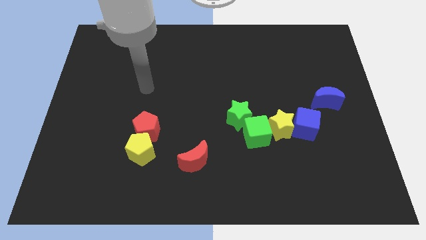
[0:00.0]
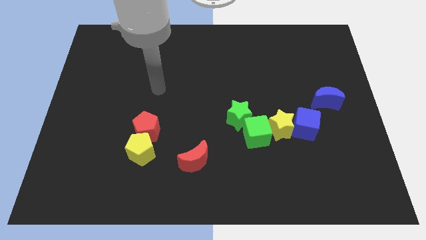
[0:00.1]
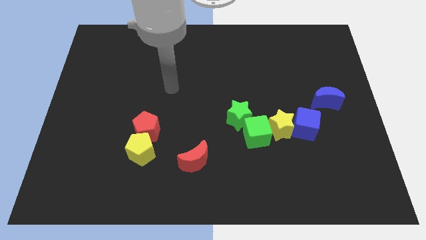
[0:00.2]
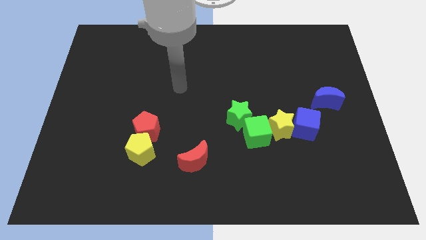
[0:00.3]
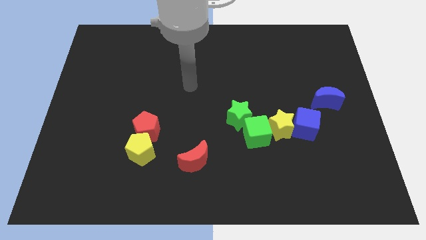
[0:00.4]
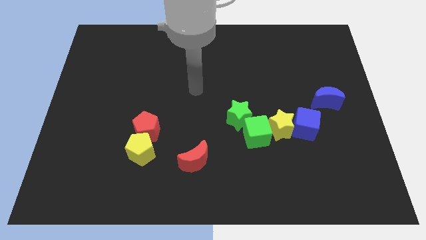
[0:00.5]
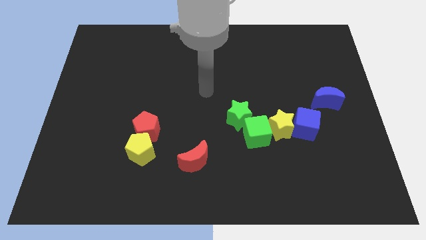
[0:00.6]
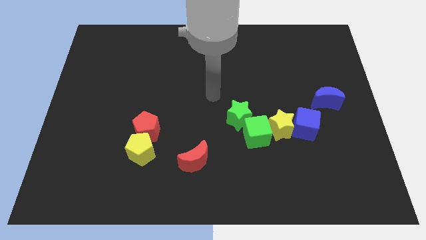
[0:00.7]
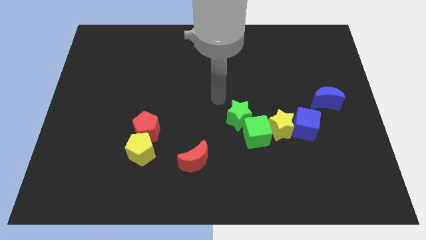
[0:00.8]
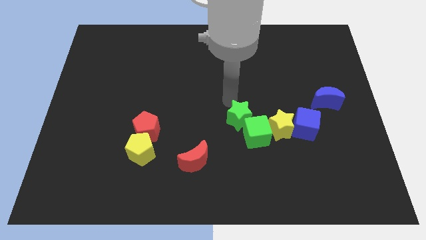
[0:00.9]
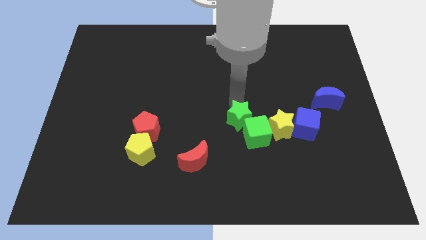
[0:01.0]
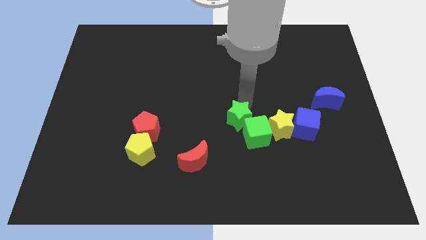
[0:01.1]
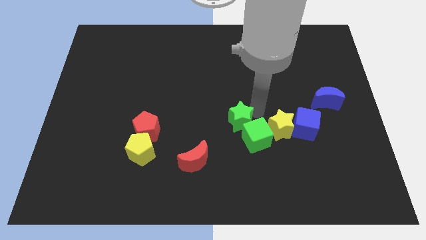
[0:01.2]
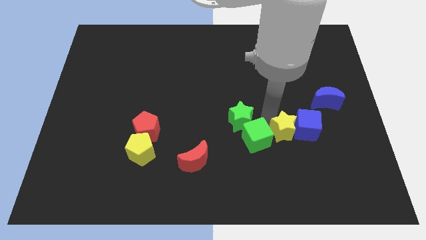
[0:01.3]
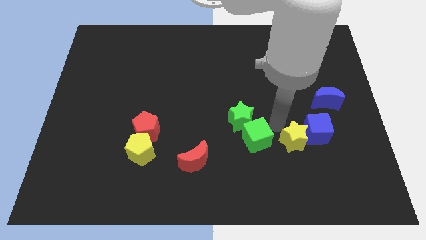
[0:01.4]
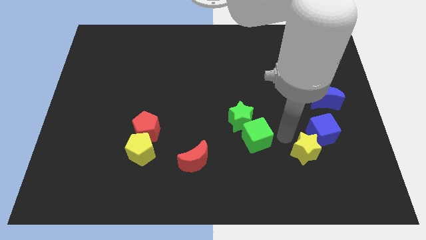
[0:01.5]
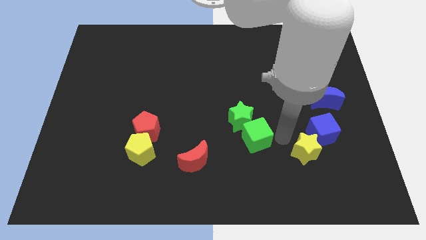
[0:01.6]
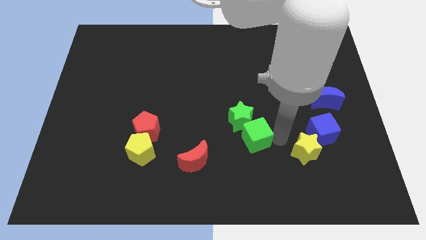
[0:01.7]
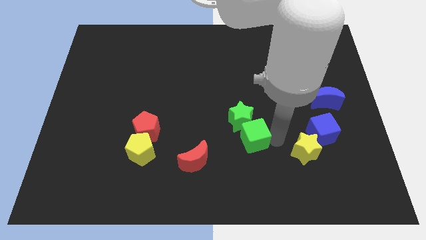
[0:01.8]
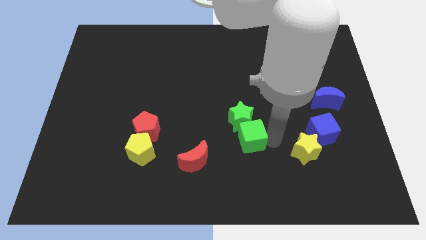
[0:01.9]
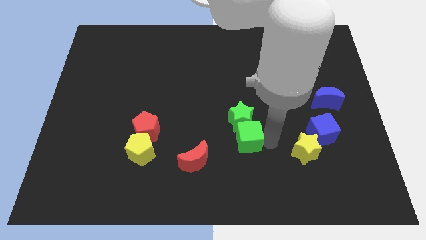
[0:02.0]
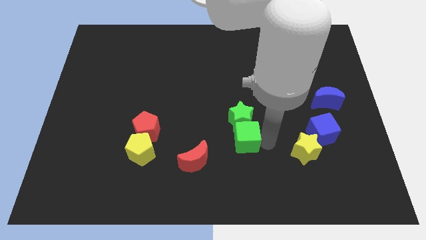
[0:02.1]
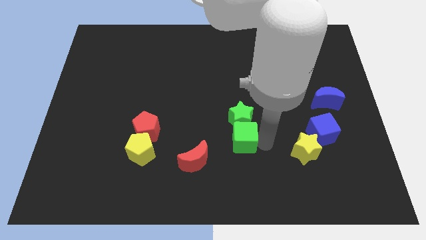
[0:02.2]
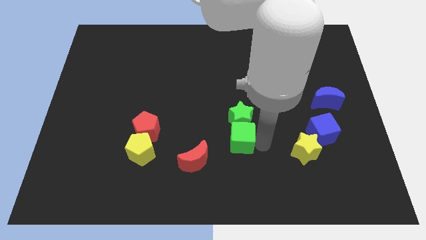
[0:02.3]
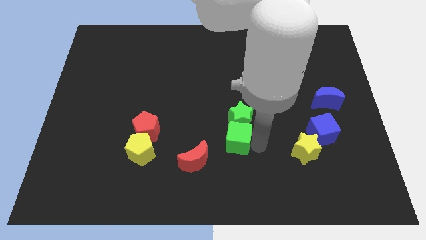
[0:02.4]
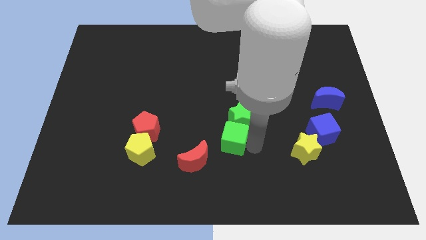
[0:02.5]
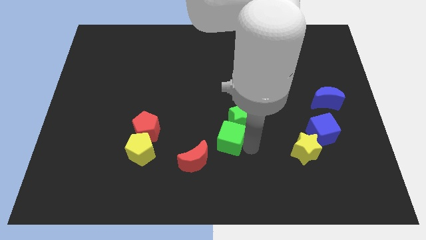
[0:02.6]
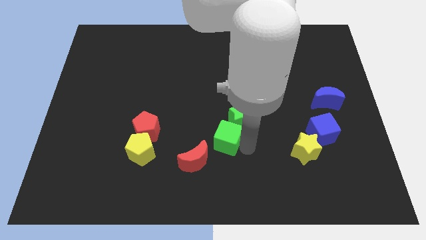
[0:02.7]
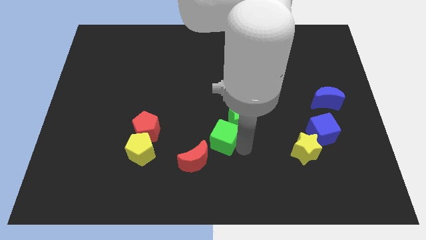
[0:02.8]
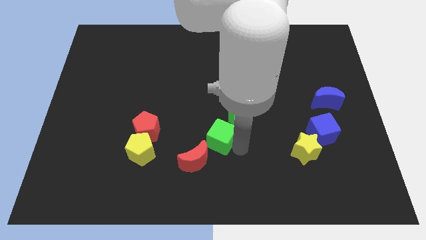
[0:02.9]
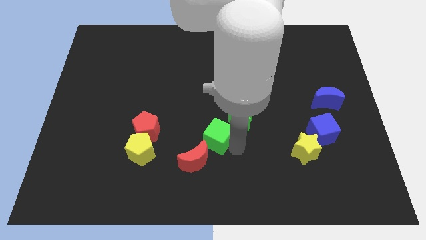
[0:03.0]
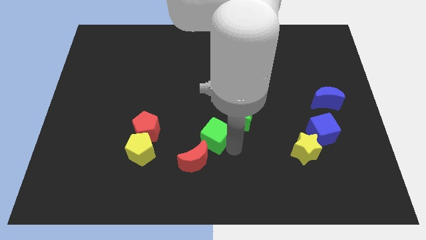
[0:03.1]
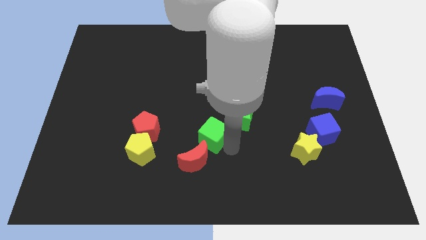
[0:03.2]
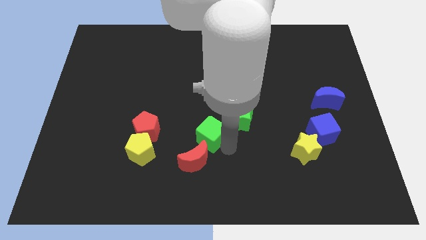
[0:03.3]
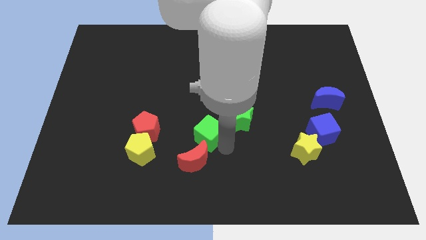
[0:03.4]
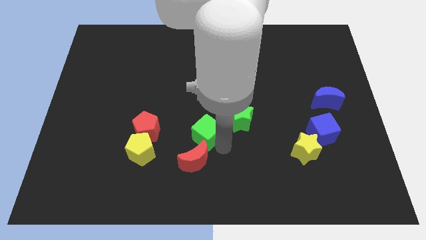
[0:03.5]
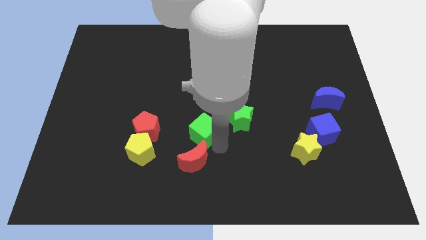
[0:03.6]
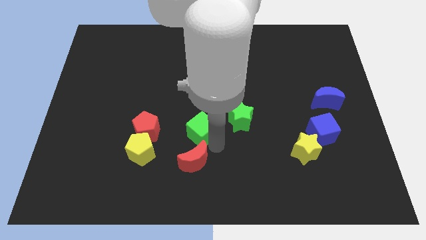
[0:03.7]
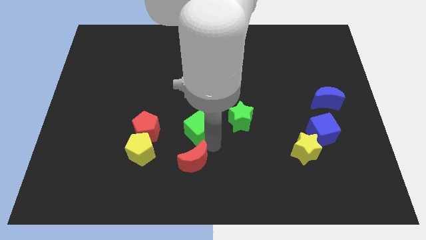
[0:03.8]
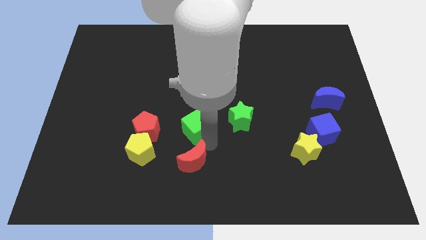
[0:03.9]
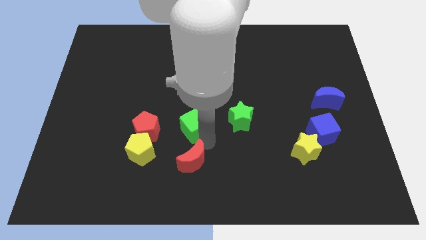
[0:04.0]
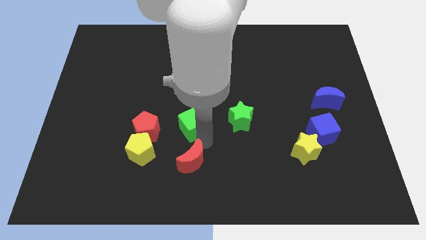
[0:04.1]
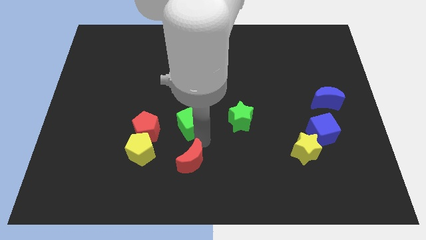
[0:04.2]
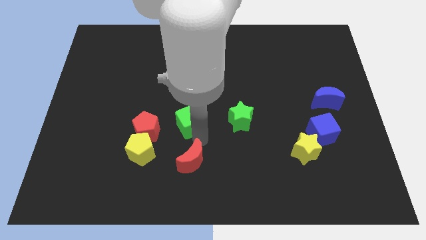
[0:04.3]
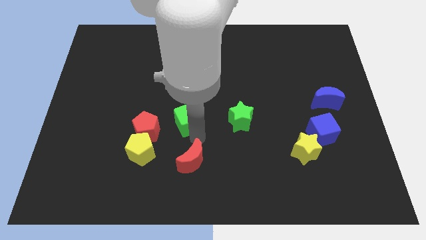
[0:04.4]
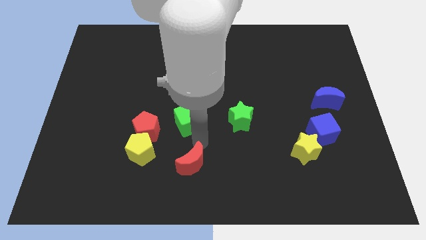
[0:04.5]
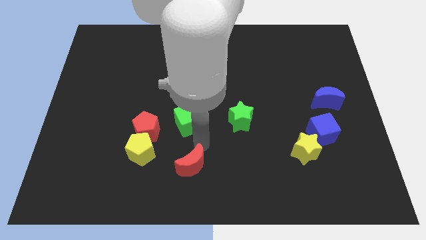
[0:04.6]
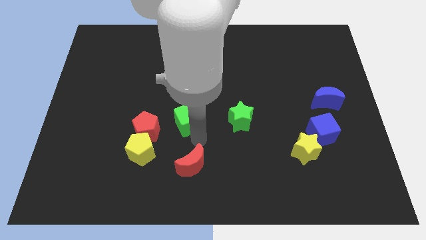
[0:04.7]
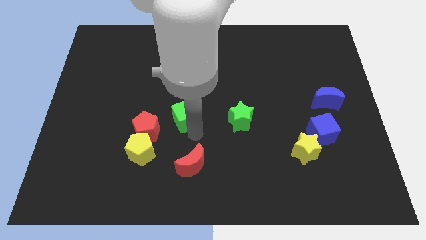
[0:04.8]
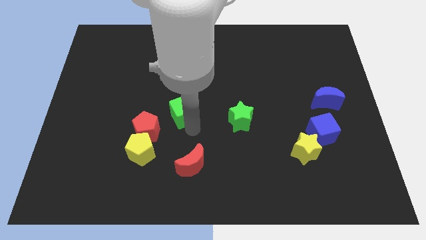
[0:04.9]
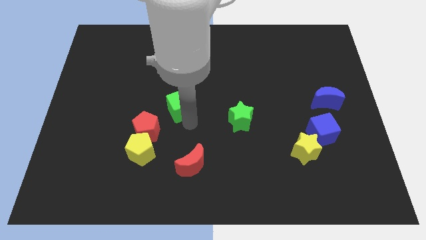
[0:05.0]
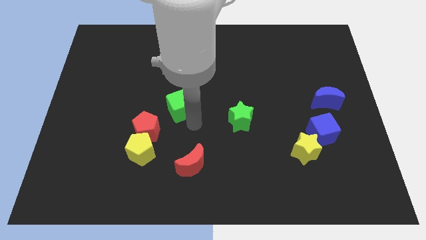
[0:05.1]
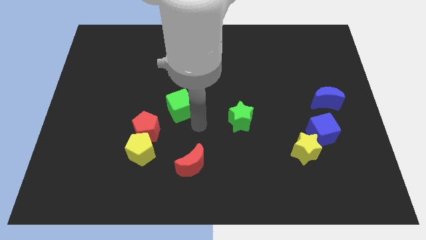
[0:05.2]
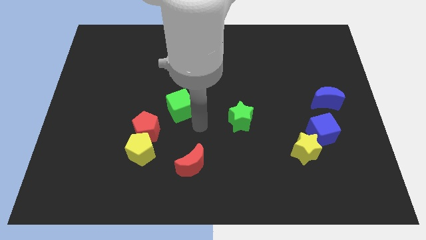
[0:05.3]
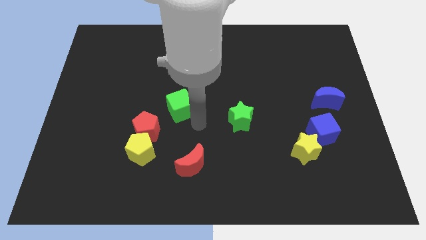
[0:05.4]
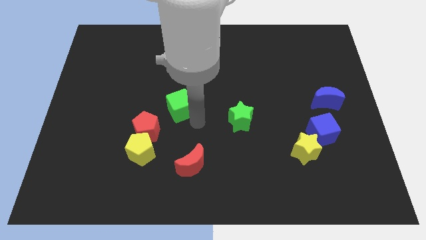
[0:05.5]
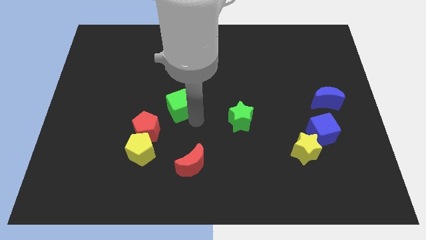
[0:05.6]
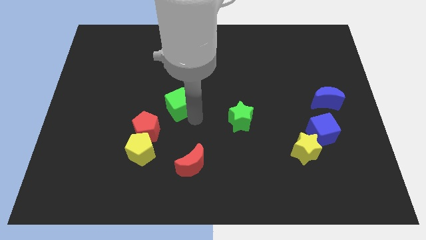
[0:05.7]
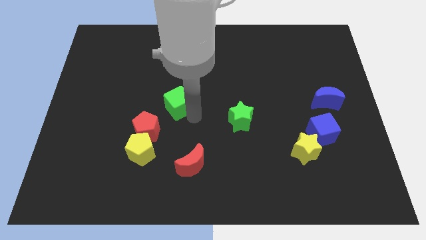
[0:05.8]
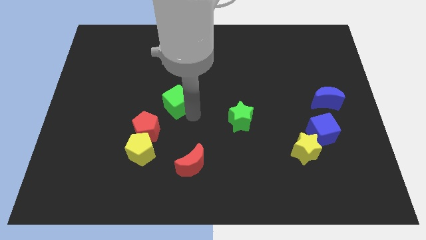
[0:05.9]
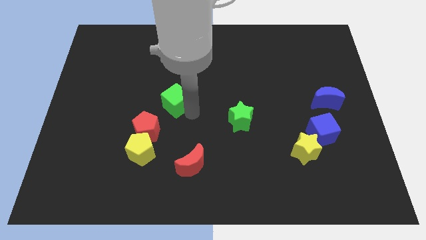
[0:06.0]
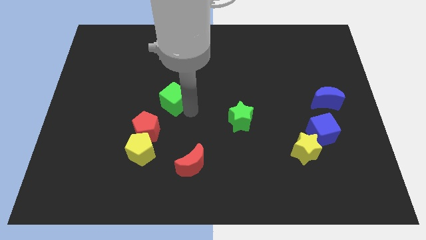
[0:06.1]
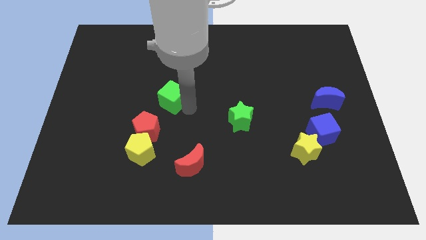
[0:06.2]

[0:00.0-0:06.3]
put the green cube to the top of the red pentagon
